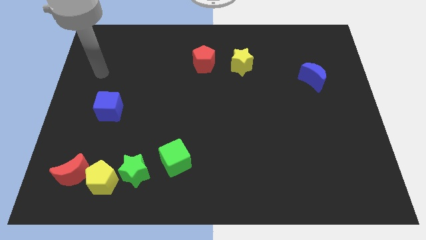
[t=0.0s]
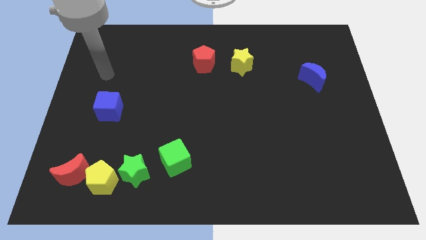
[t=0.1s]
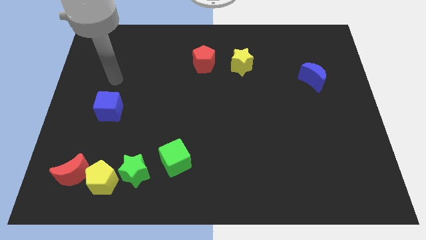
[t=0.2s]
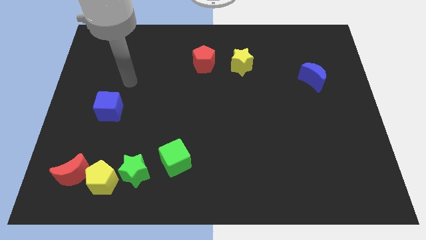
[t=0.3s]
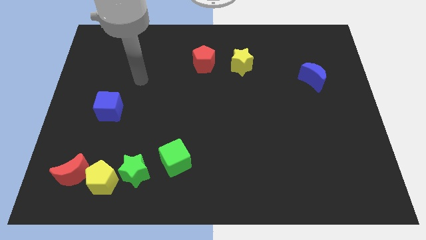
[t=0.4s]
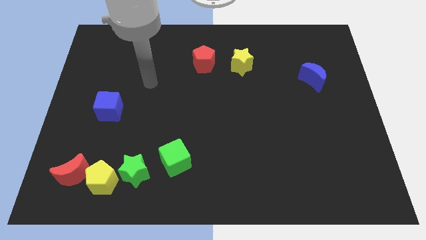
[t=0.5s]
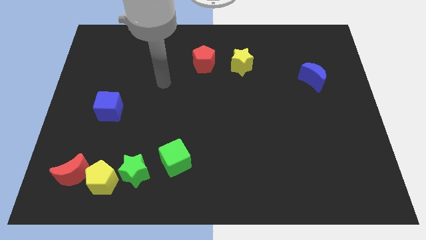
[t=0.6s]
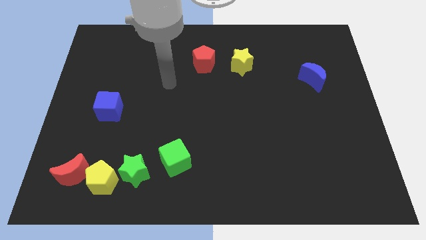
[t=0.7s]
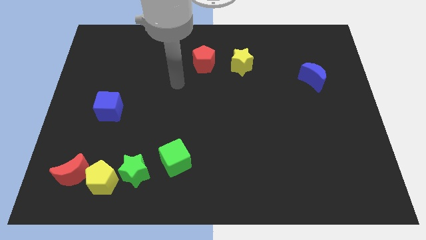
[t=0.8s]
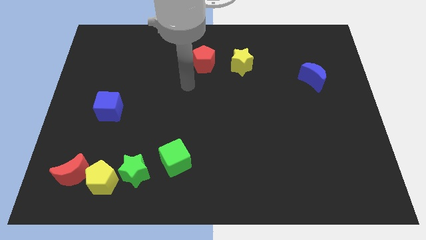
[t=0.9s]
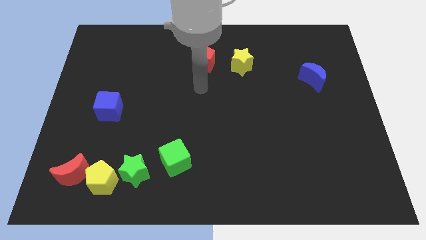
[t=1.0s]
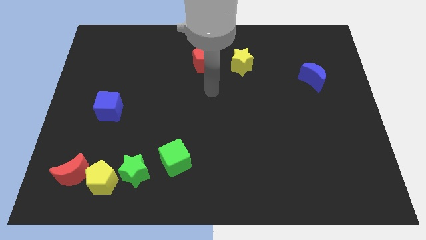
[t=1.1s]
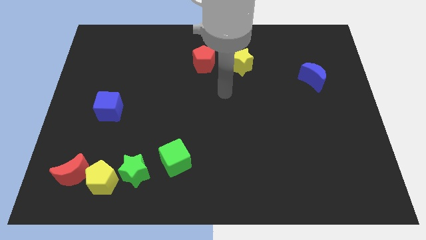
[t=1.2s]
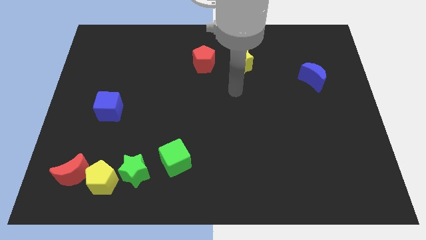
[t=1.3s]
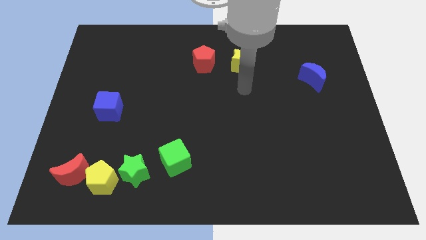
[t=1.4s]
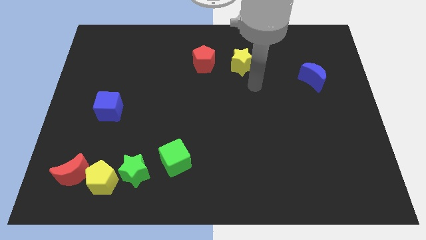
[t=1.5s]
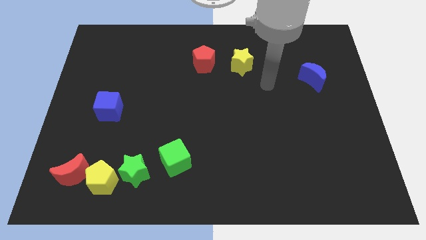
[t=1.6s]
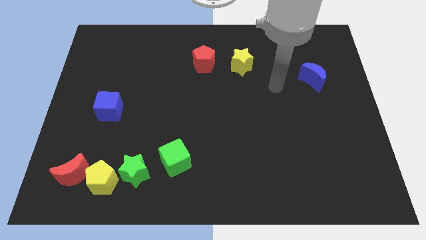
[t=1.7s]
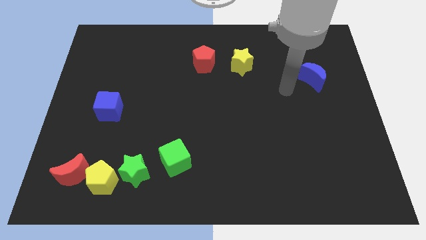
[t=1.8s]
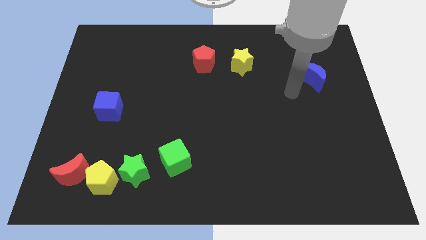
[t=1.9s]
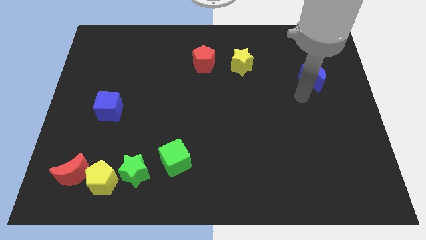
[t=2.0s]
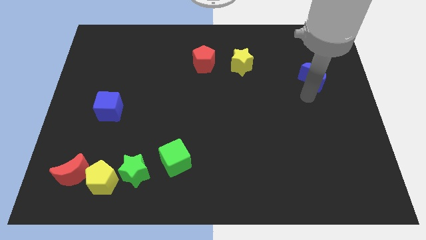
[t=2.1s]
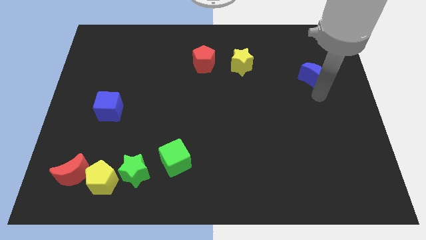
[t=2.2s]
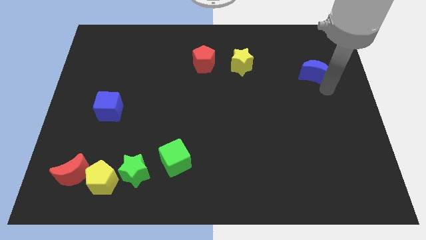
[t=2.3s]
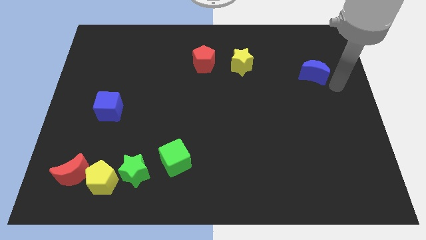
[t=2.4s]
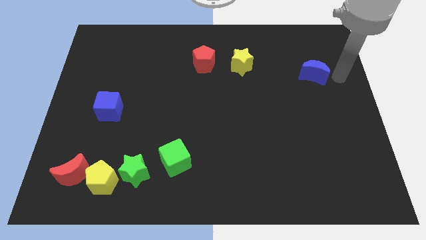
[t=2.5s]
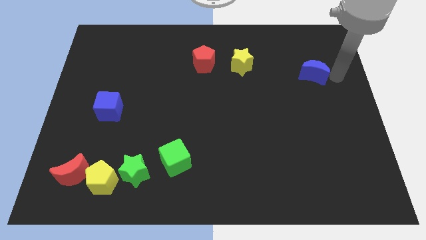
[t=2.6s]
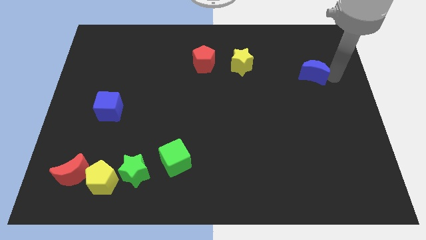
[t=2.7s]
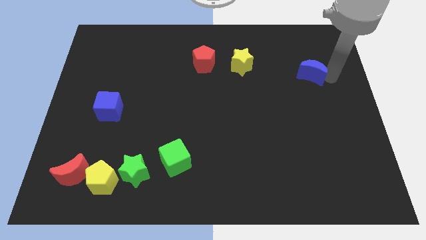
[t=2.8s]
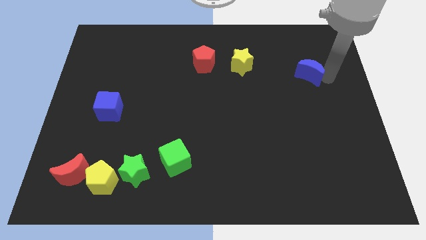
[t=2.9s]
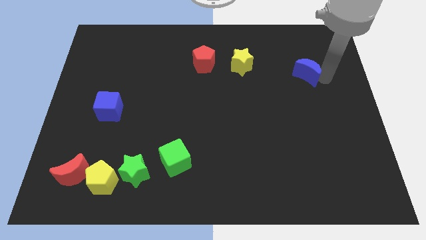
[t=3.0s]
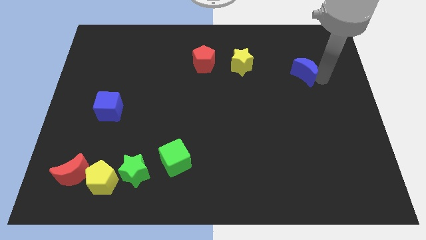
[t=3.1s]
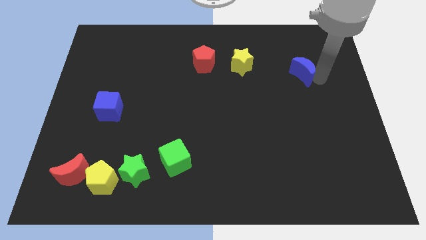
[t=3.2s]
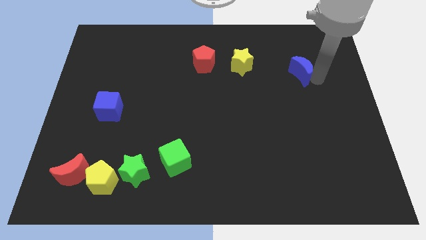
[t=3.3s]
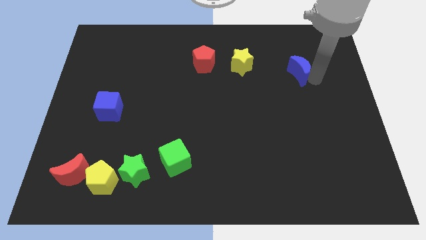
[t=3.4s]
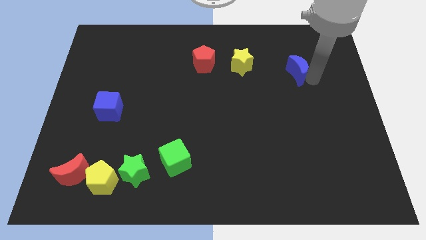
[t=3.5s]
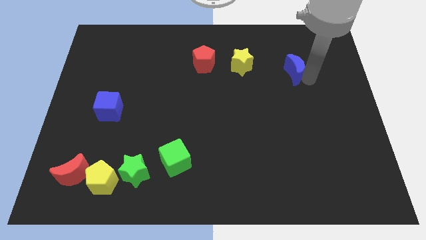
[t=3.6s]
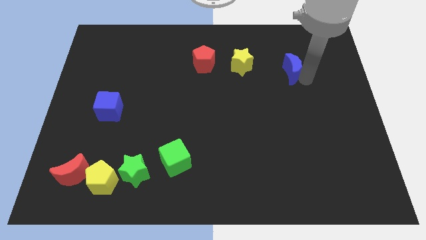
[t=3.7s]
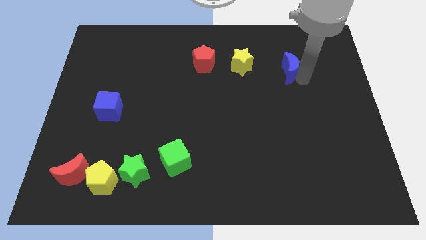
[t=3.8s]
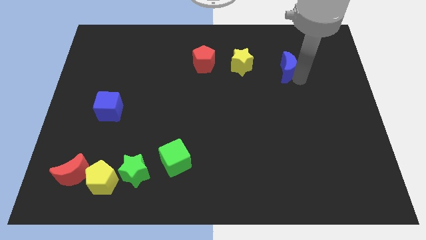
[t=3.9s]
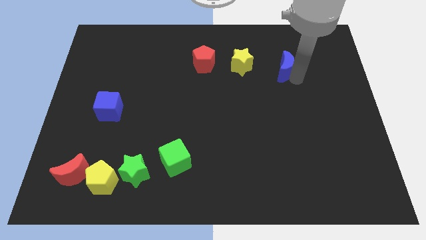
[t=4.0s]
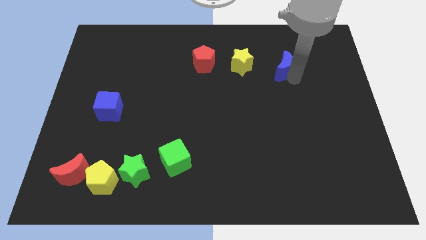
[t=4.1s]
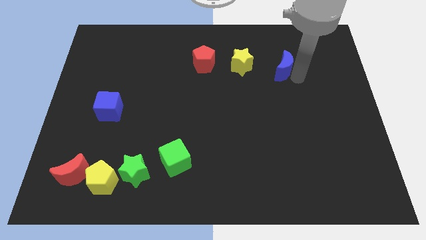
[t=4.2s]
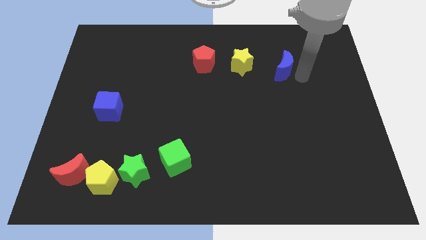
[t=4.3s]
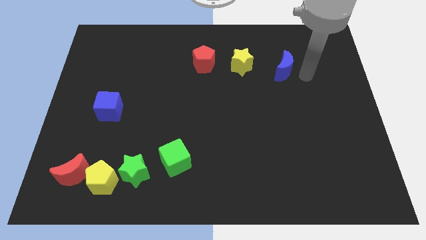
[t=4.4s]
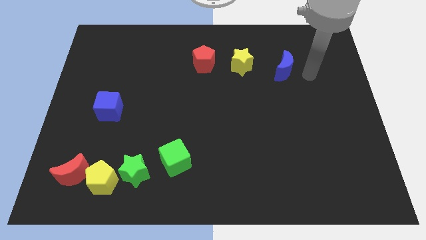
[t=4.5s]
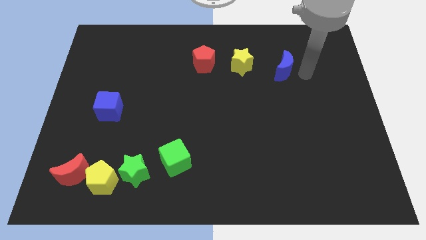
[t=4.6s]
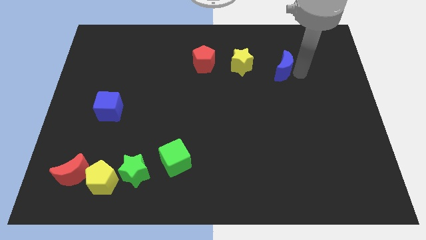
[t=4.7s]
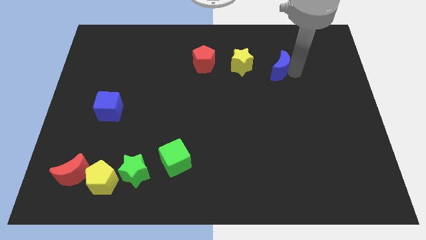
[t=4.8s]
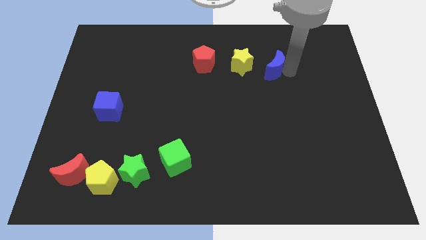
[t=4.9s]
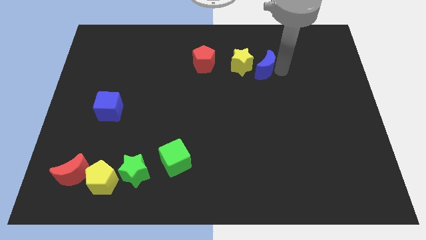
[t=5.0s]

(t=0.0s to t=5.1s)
slide the blue moon next to the yellow star

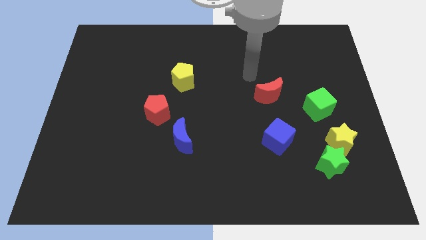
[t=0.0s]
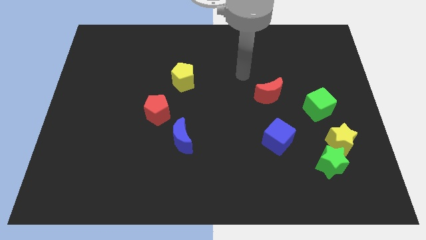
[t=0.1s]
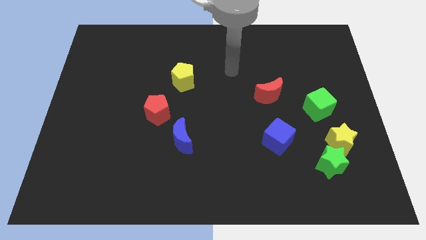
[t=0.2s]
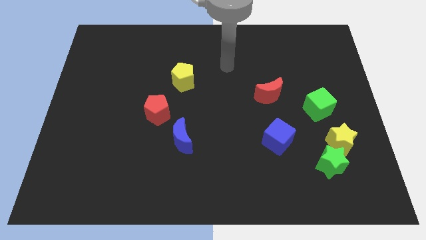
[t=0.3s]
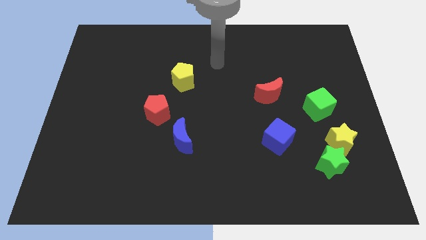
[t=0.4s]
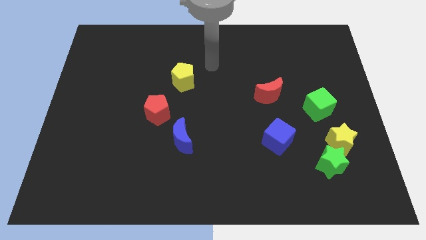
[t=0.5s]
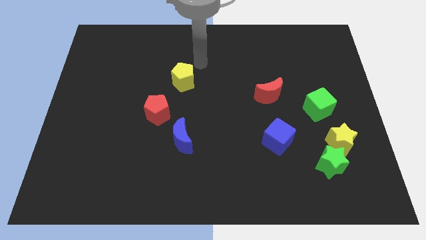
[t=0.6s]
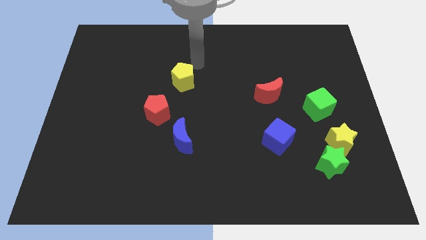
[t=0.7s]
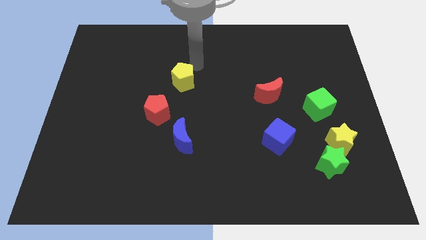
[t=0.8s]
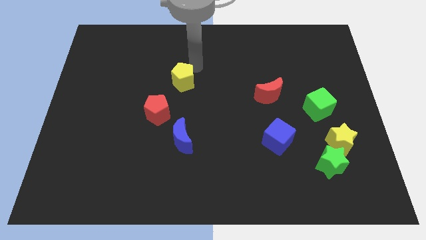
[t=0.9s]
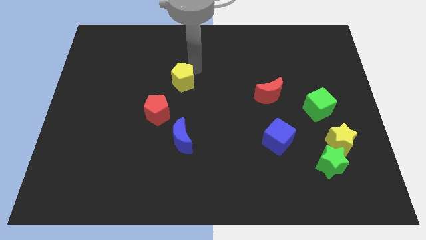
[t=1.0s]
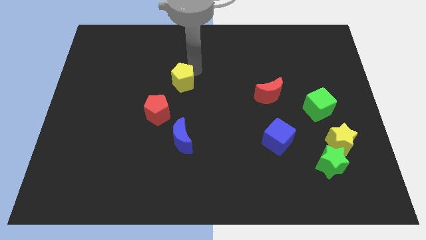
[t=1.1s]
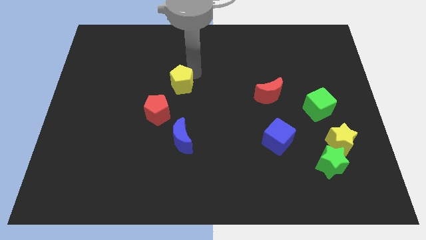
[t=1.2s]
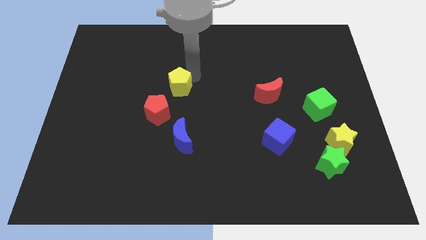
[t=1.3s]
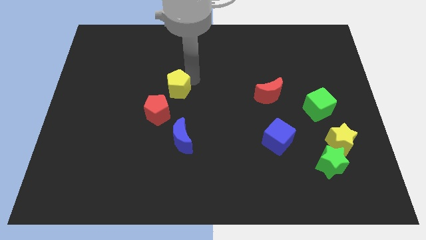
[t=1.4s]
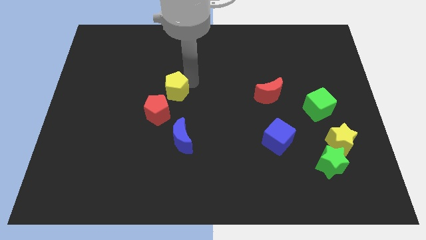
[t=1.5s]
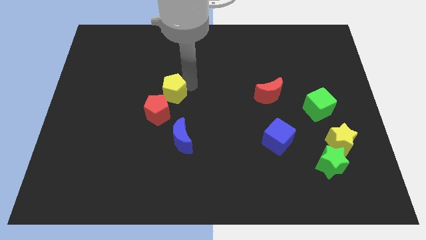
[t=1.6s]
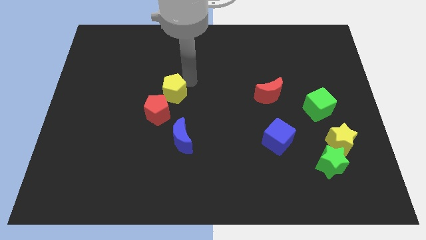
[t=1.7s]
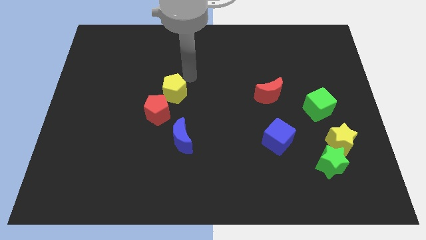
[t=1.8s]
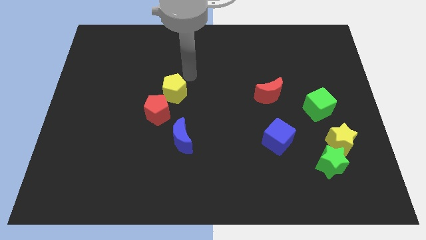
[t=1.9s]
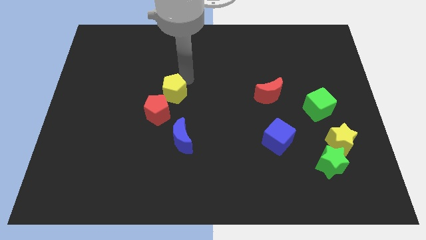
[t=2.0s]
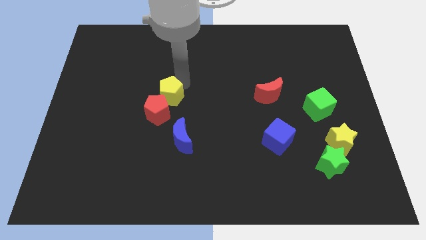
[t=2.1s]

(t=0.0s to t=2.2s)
slide the yellow pentagon towards the red pentagon

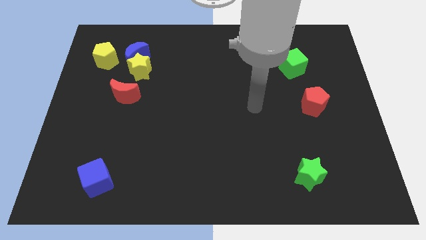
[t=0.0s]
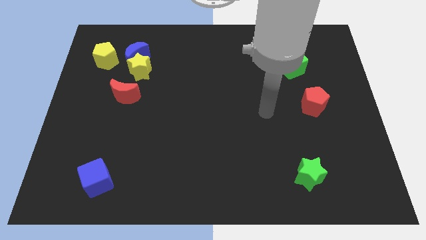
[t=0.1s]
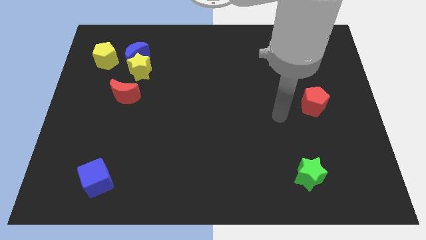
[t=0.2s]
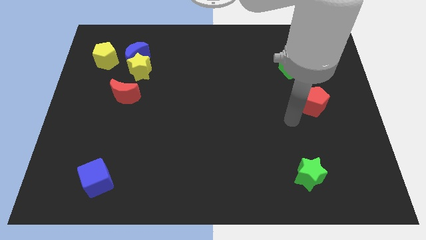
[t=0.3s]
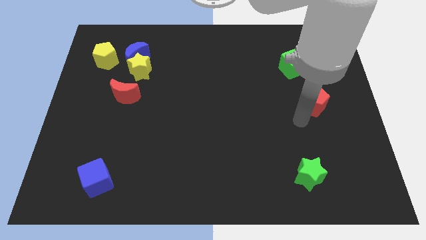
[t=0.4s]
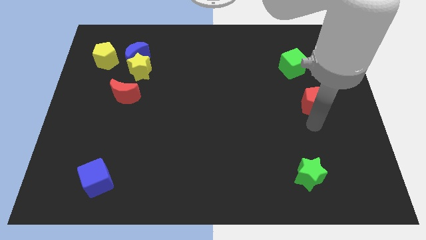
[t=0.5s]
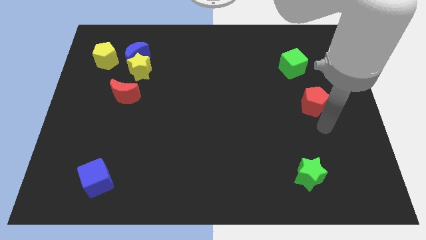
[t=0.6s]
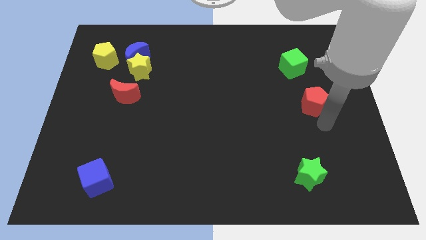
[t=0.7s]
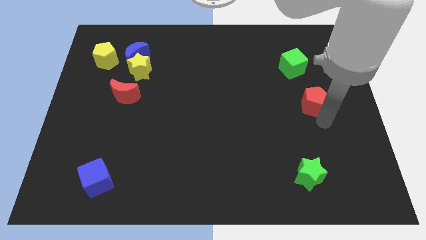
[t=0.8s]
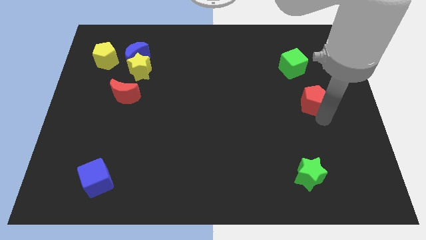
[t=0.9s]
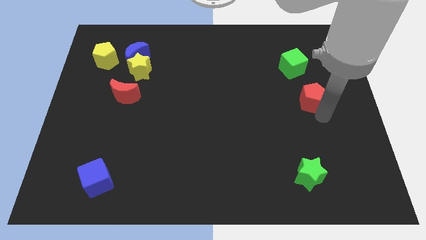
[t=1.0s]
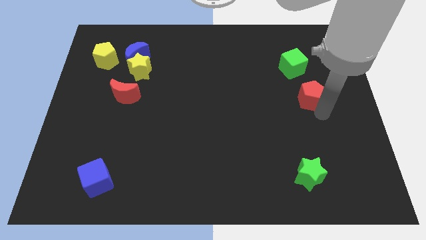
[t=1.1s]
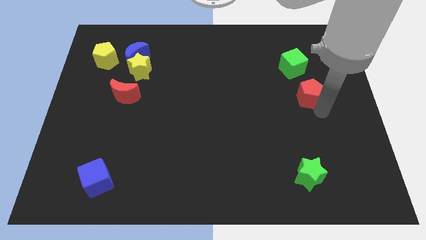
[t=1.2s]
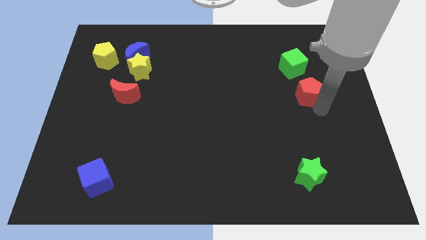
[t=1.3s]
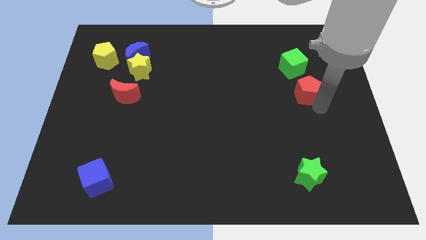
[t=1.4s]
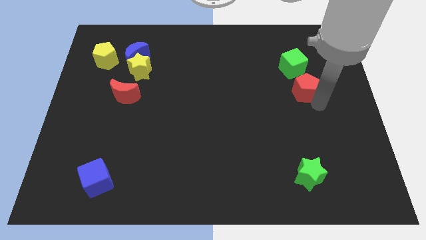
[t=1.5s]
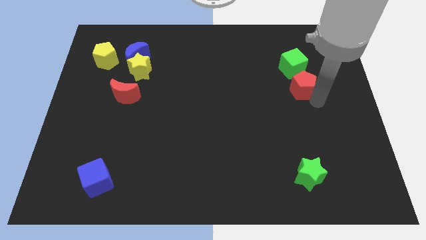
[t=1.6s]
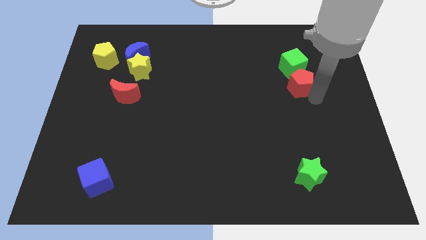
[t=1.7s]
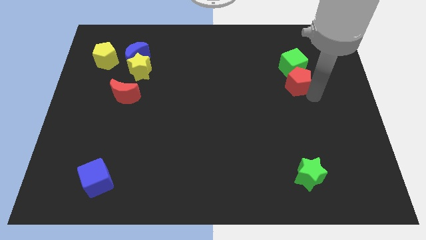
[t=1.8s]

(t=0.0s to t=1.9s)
slide the red pentagon close to the green cube
